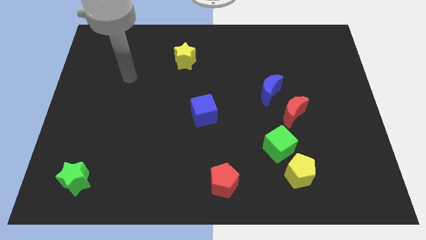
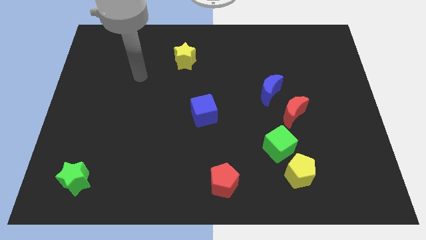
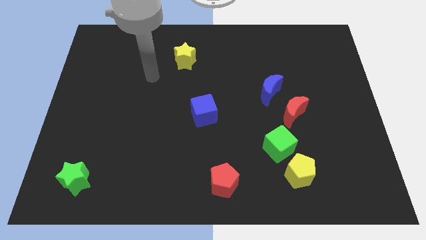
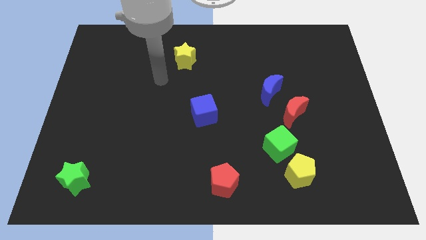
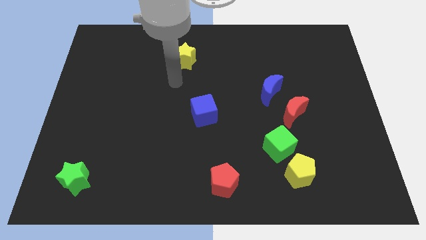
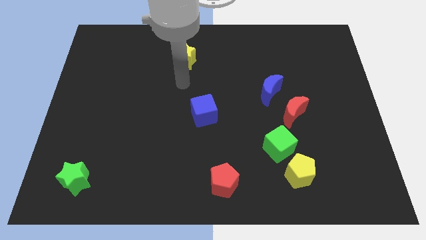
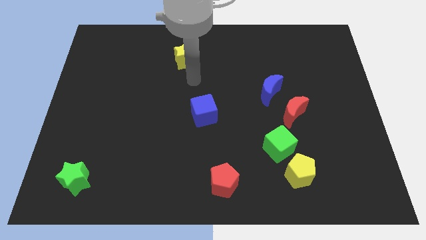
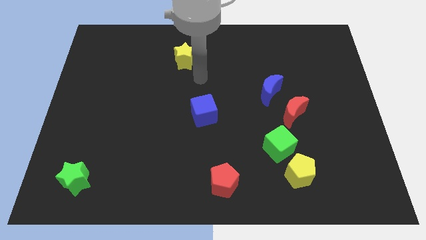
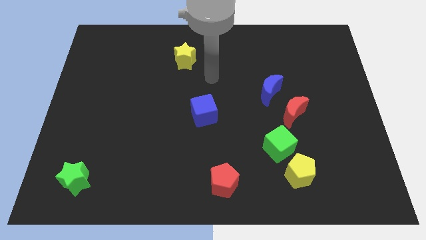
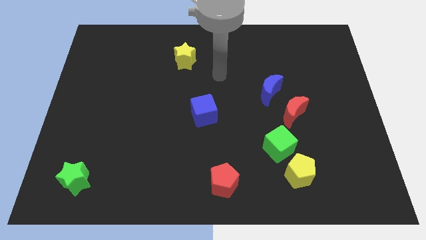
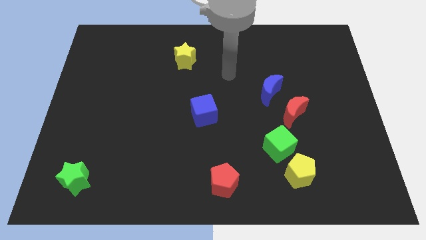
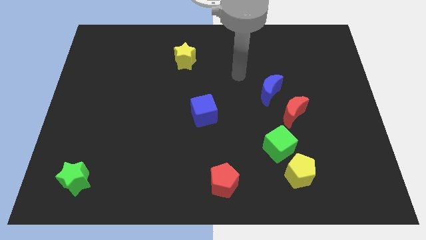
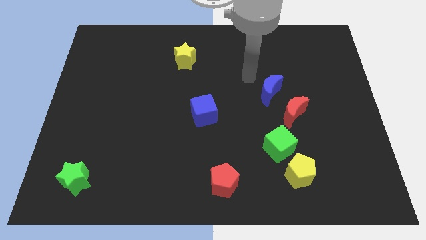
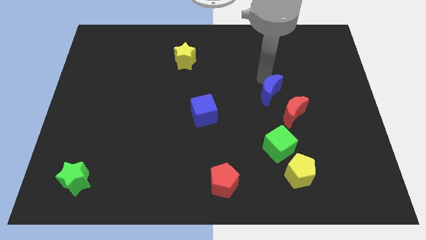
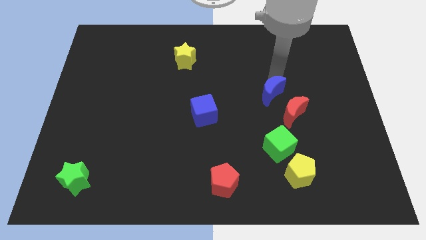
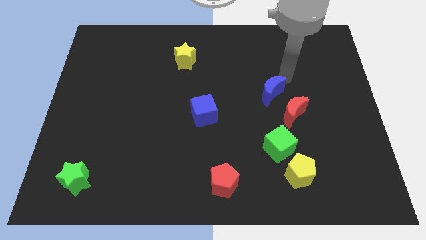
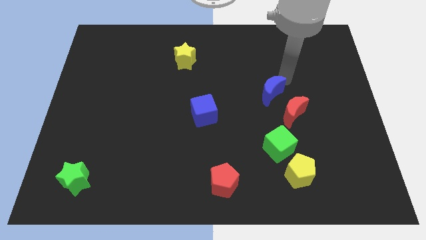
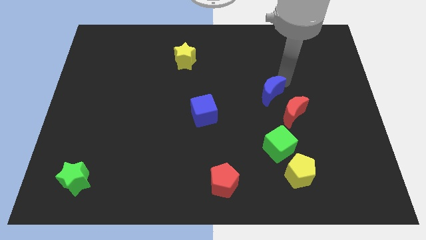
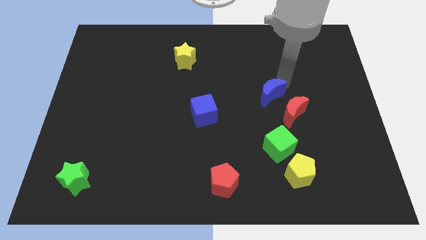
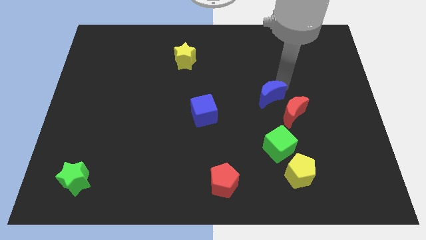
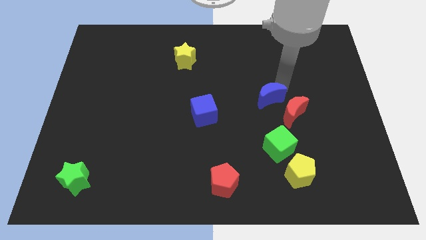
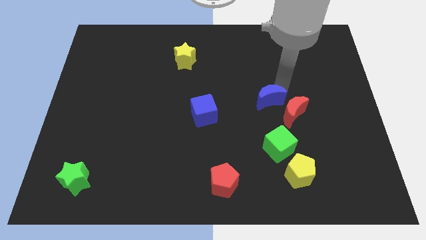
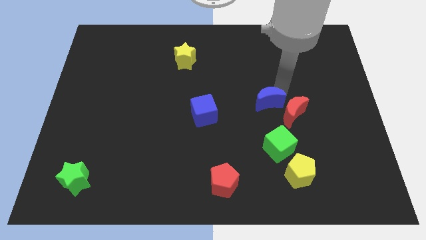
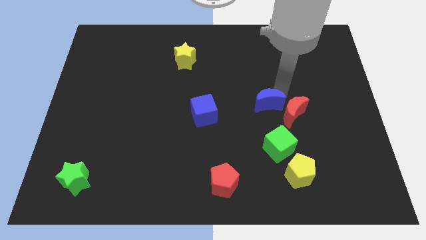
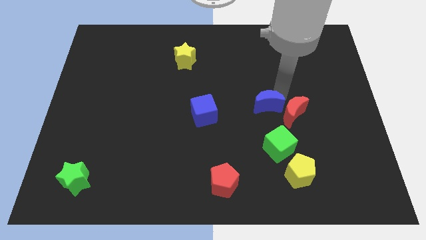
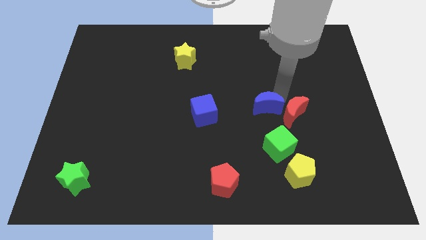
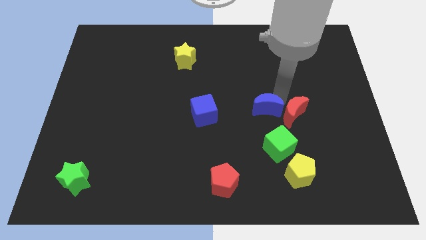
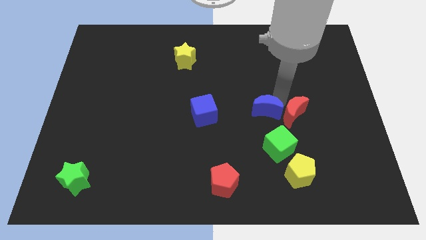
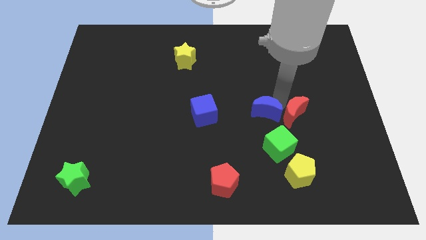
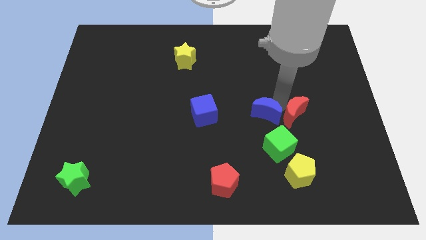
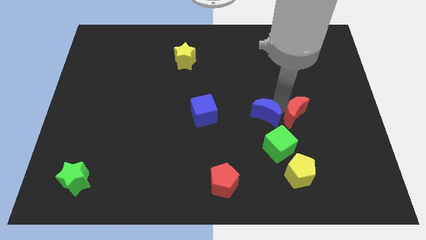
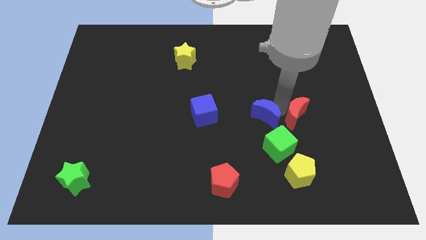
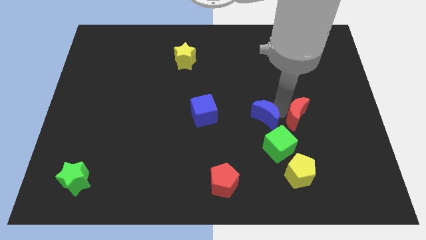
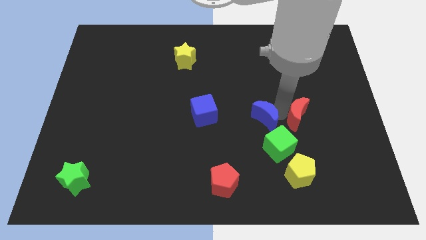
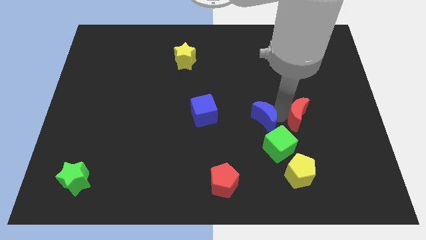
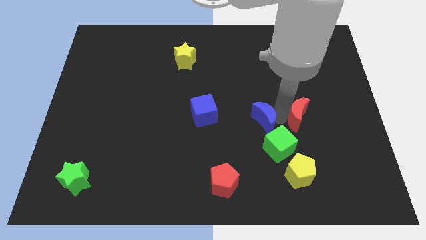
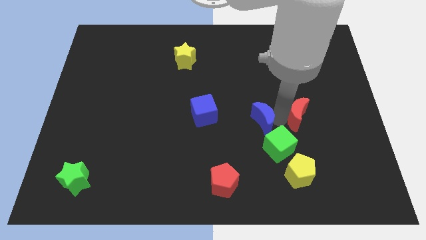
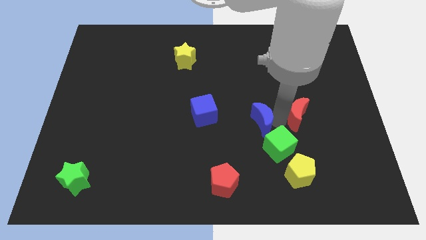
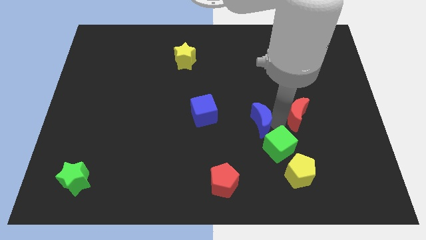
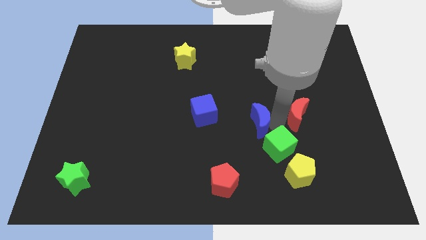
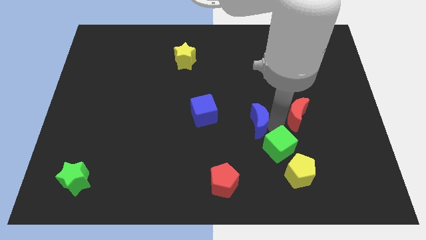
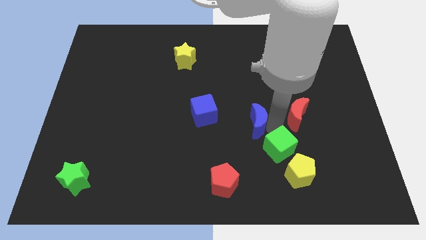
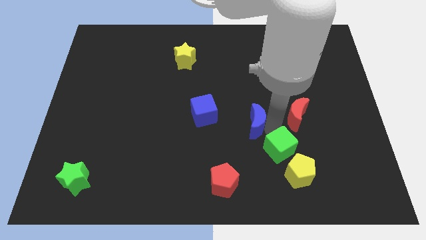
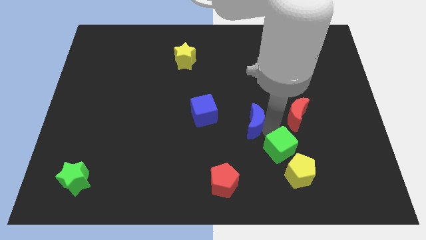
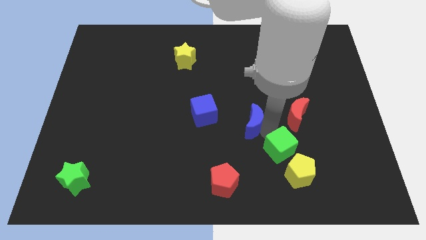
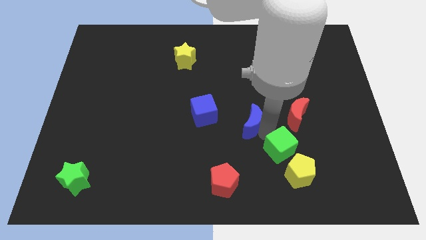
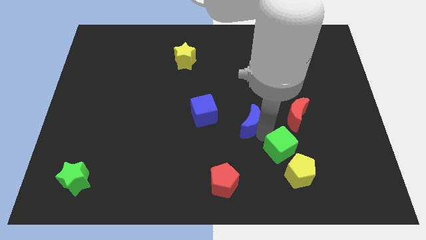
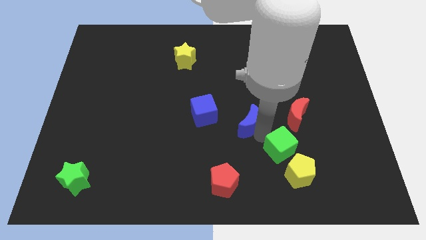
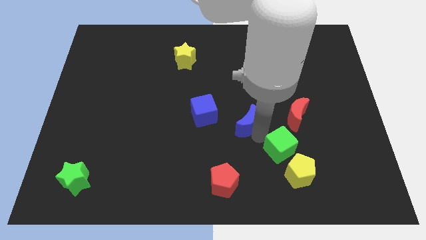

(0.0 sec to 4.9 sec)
push the blue moon diagonally down and to the right of the blue cube

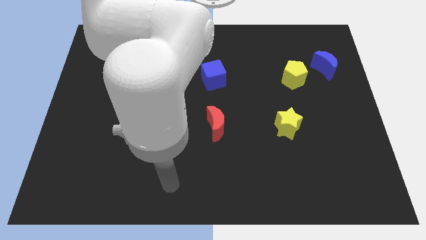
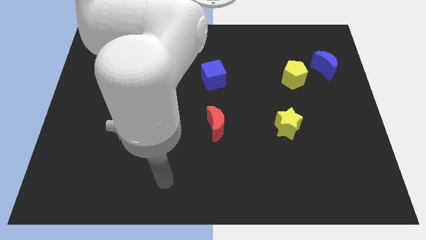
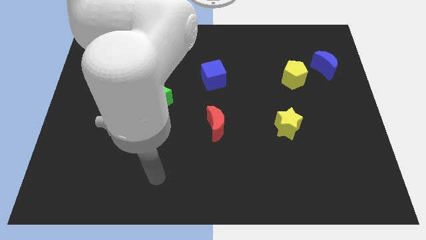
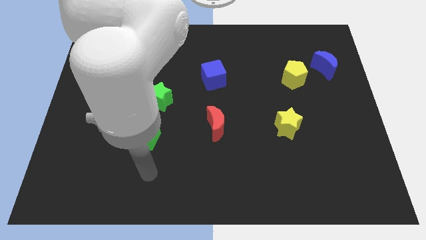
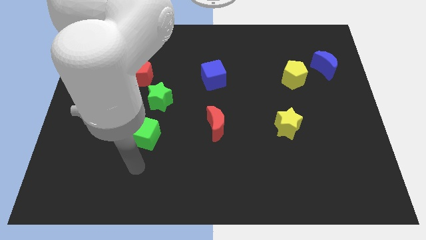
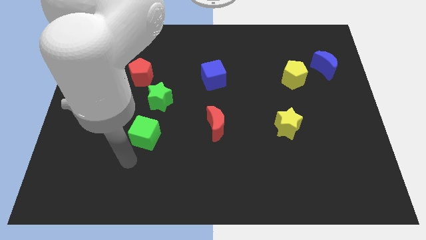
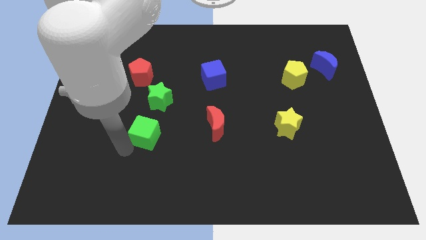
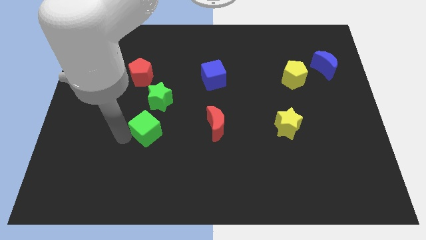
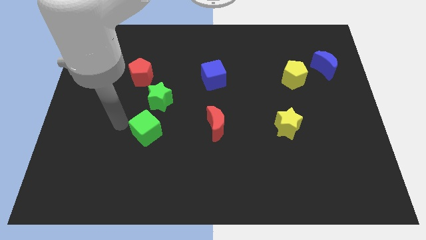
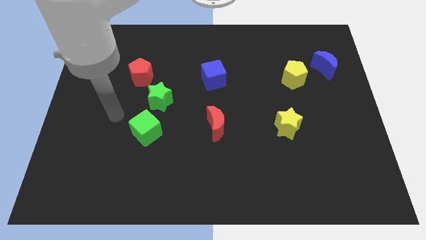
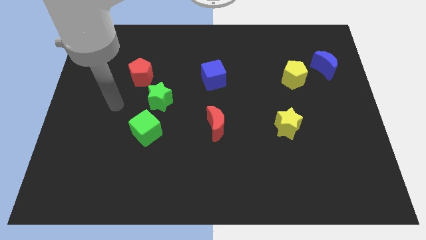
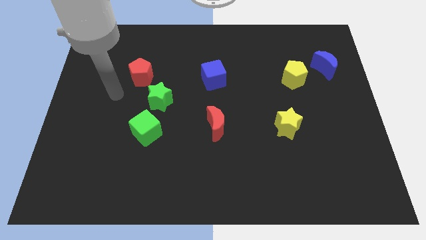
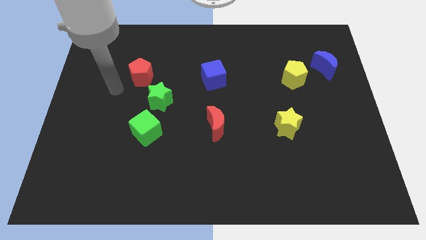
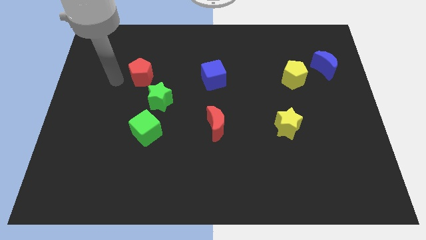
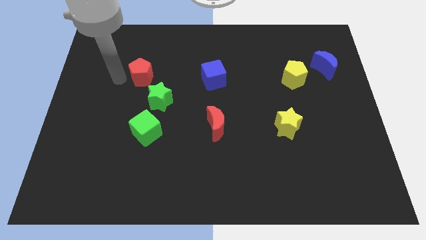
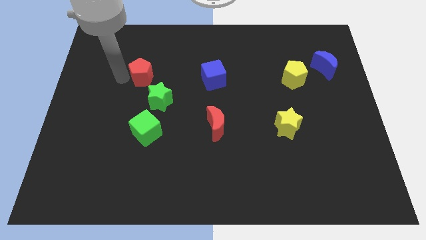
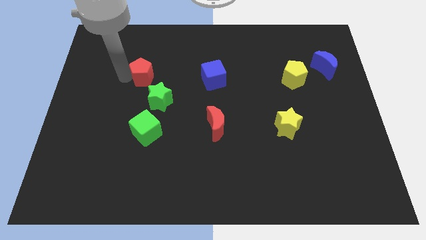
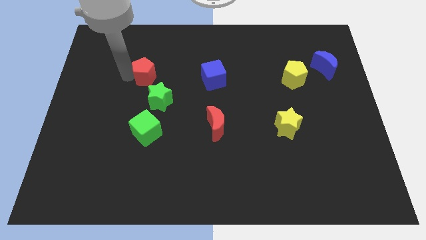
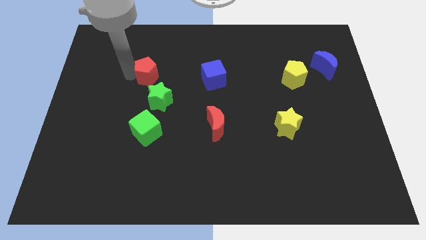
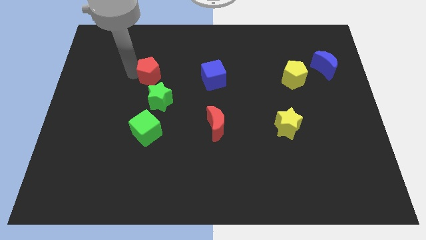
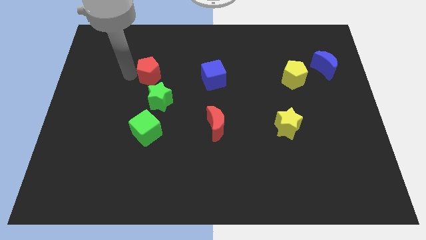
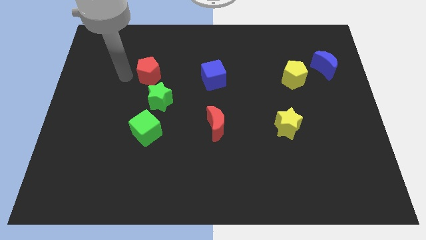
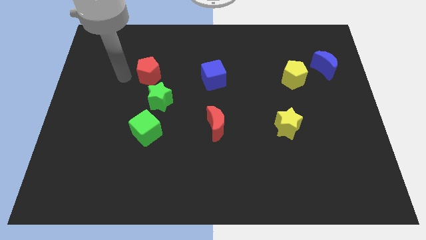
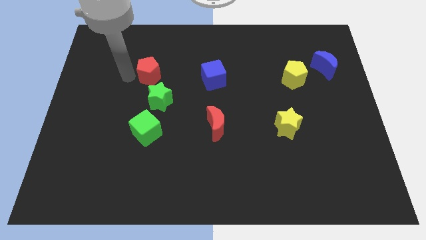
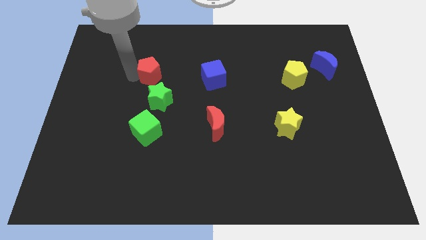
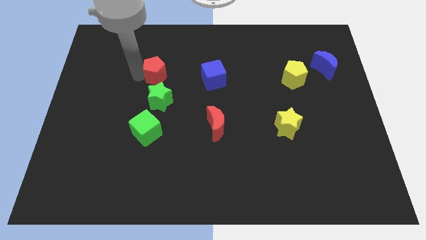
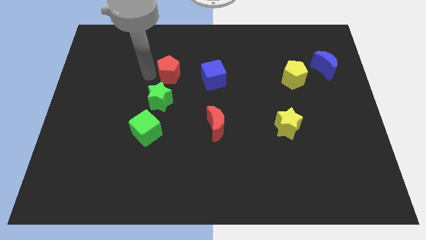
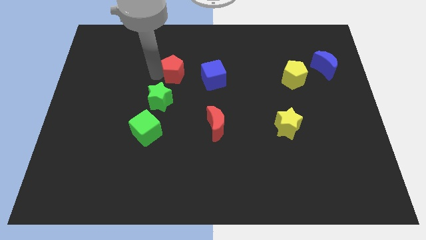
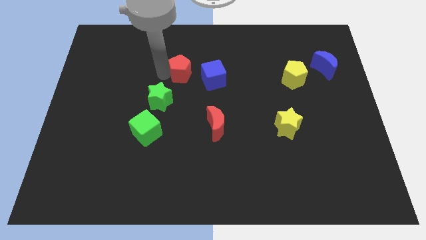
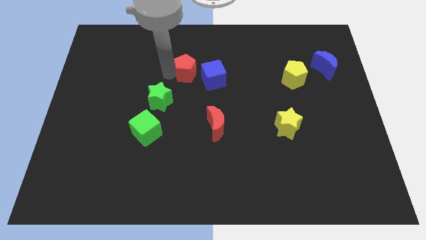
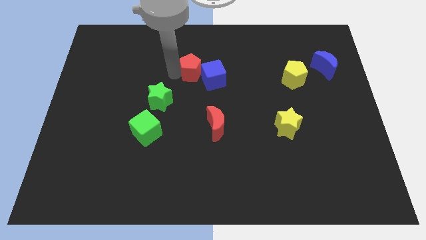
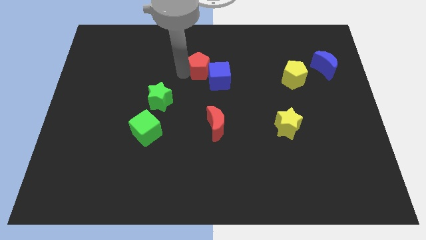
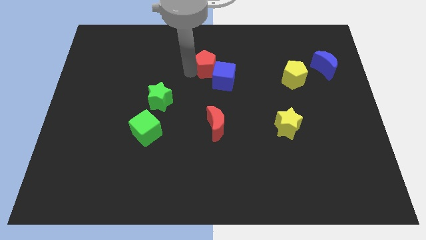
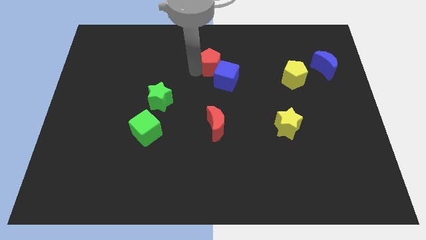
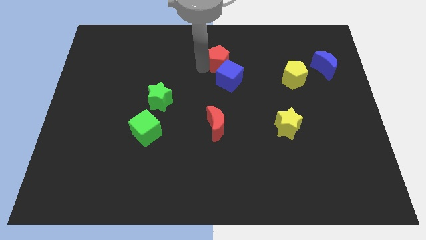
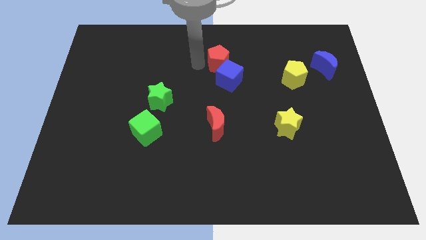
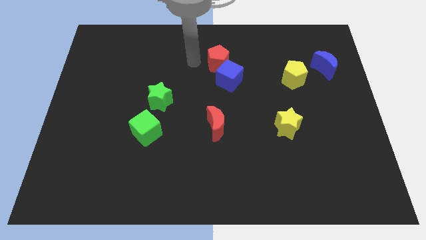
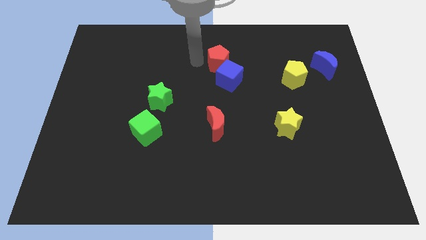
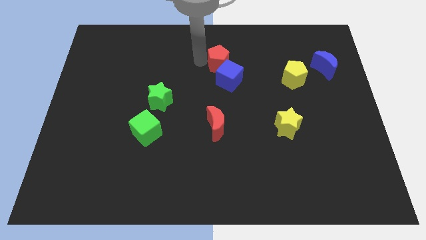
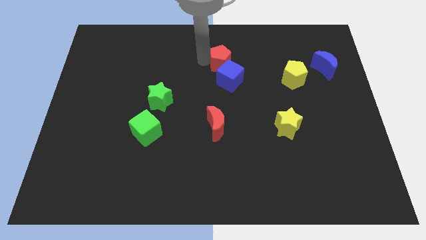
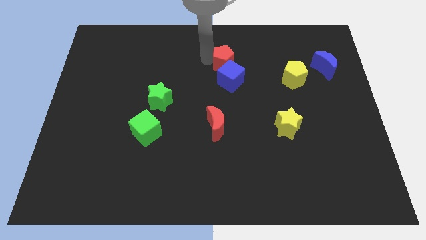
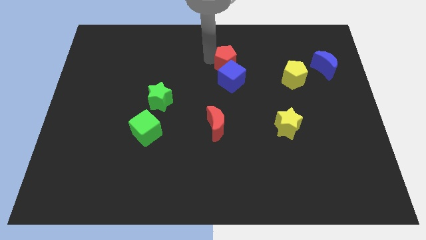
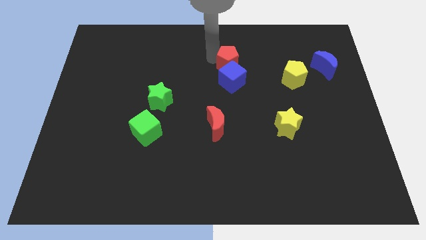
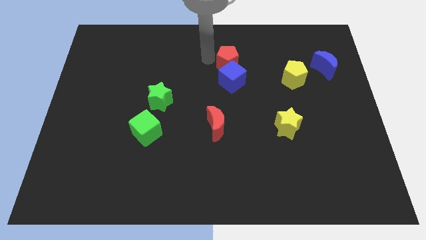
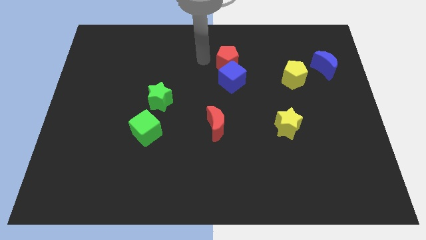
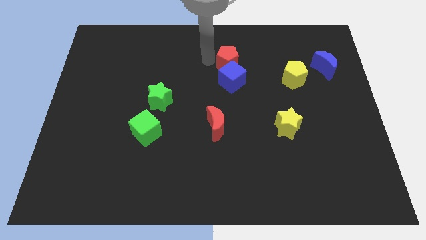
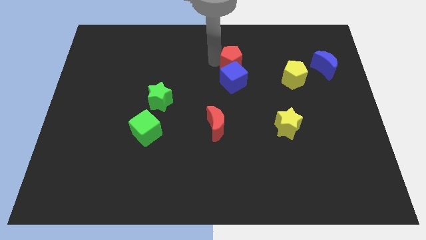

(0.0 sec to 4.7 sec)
put the red pentagon to the top right side of the blue cube
